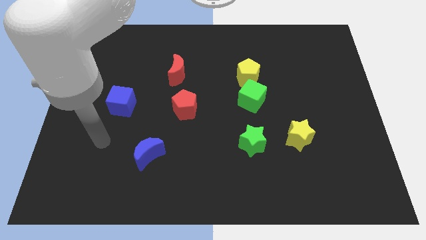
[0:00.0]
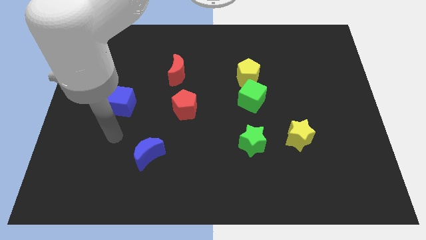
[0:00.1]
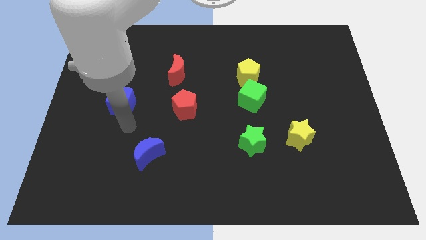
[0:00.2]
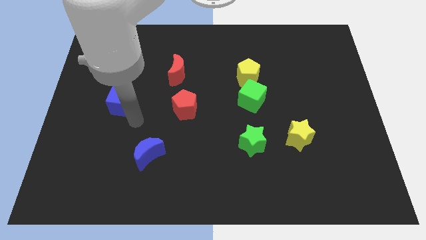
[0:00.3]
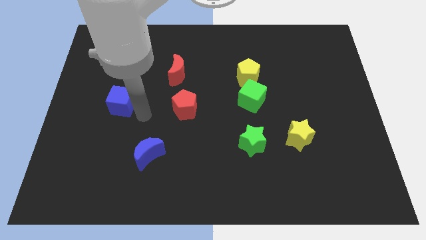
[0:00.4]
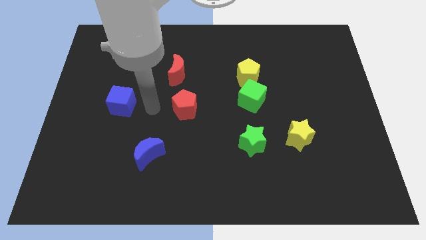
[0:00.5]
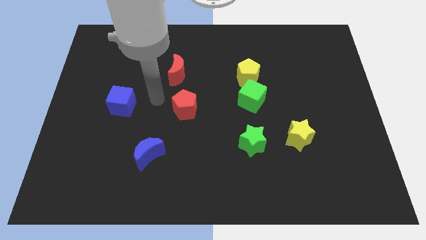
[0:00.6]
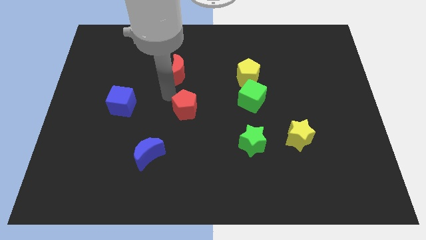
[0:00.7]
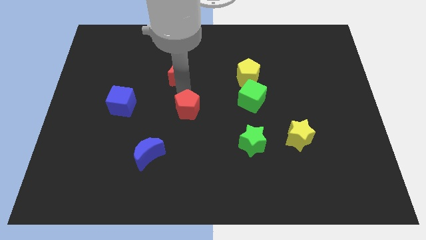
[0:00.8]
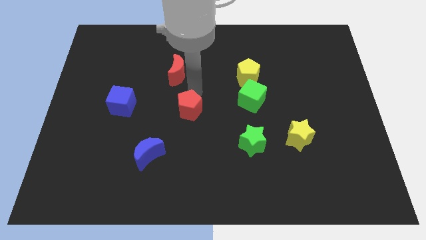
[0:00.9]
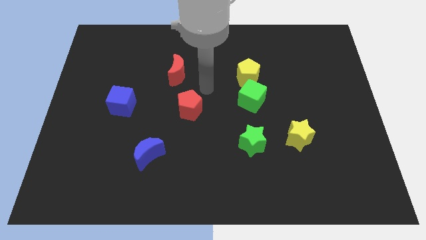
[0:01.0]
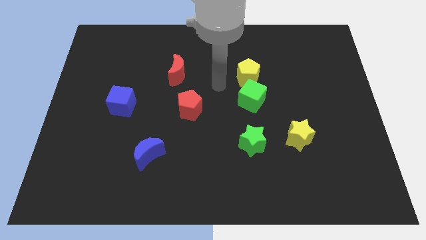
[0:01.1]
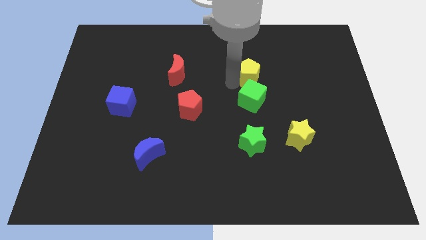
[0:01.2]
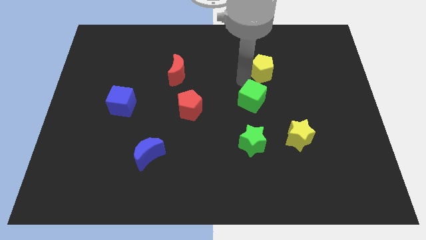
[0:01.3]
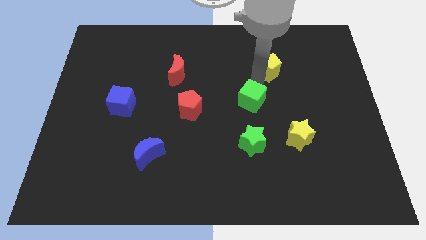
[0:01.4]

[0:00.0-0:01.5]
move the green cube away from the yellow pentagon

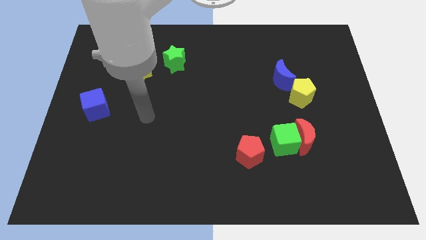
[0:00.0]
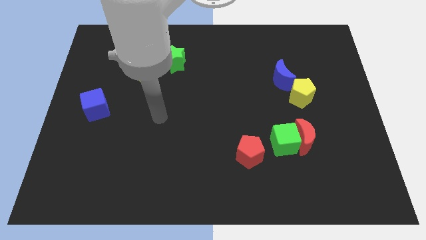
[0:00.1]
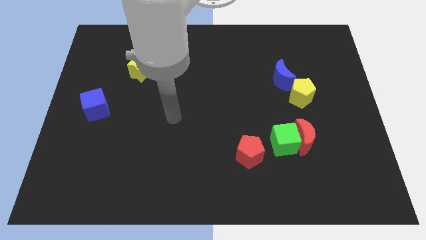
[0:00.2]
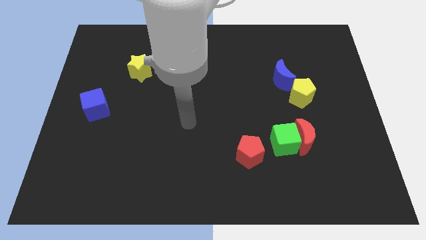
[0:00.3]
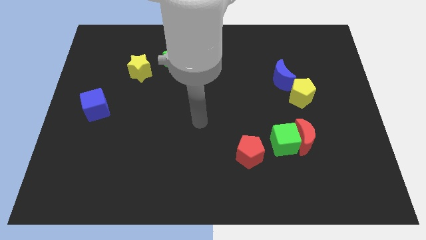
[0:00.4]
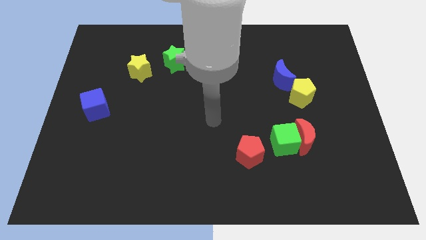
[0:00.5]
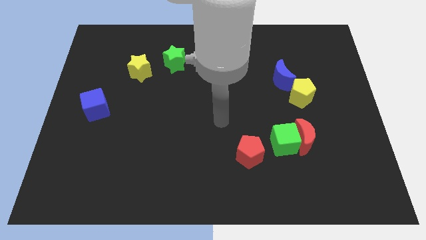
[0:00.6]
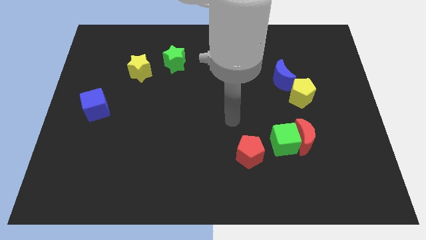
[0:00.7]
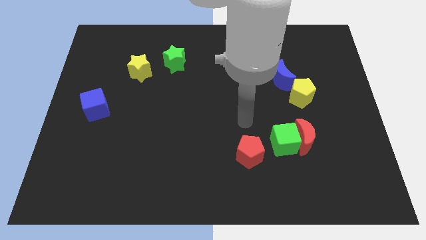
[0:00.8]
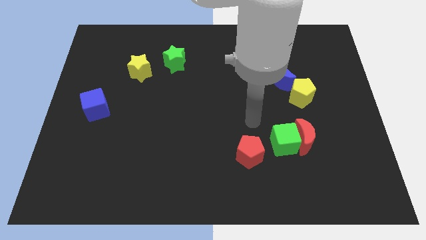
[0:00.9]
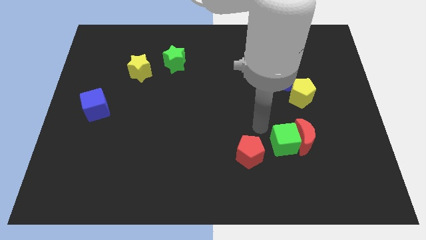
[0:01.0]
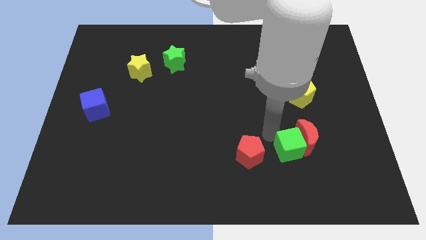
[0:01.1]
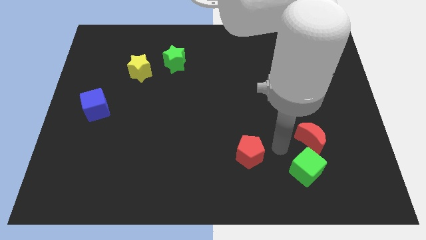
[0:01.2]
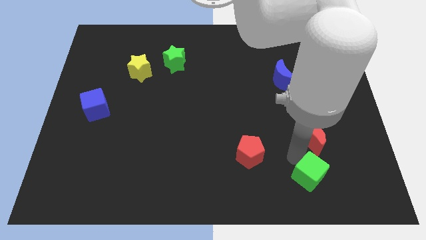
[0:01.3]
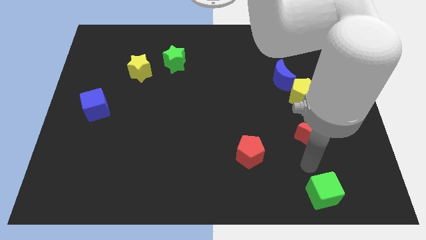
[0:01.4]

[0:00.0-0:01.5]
move the red moon away from the green cube

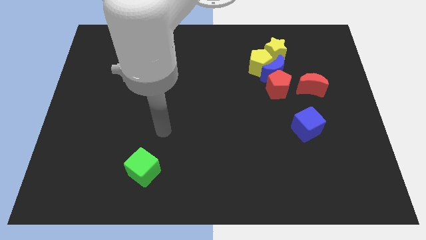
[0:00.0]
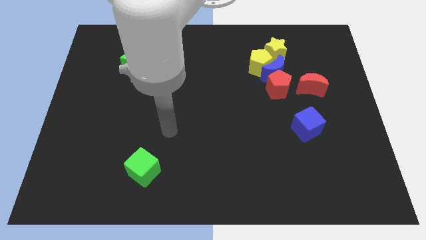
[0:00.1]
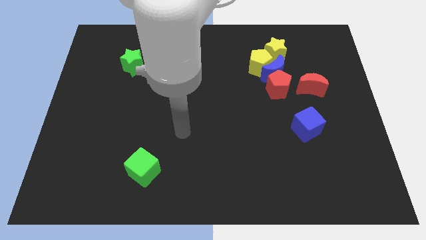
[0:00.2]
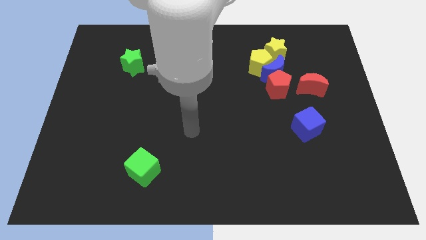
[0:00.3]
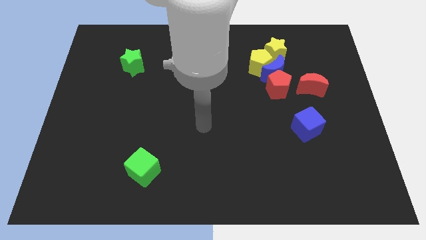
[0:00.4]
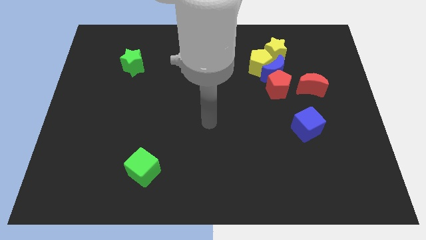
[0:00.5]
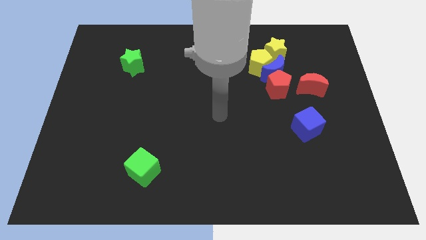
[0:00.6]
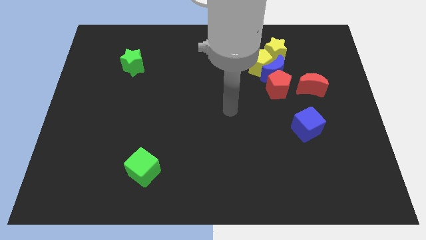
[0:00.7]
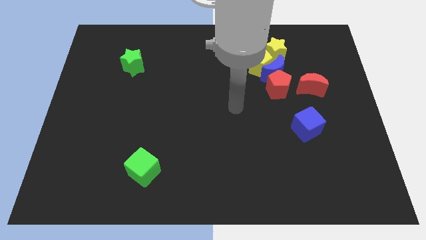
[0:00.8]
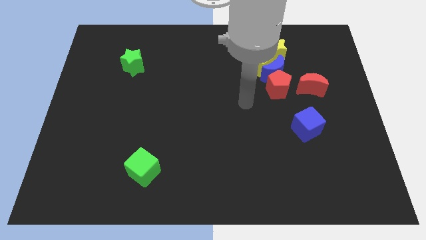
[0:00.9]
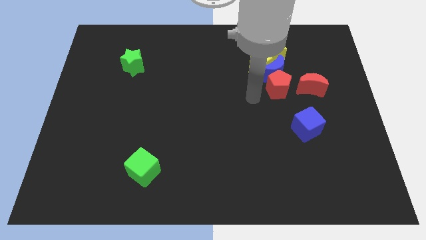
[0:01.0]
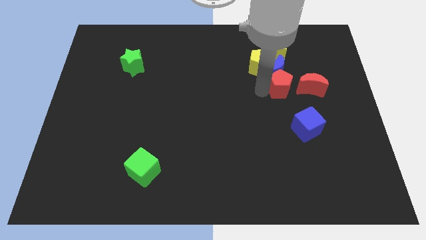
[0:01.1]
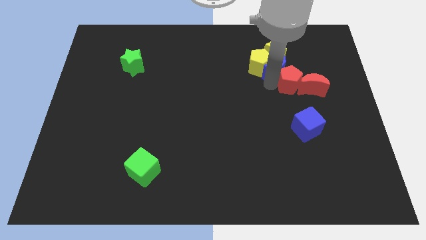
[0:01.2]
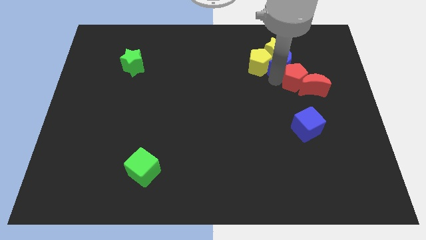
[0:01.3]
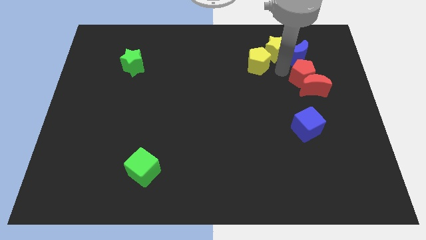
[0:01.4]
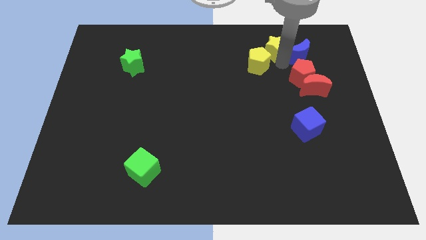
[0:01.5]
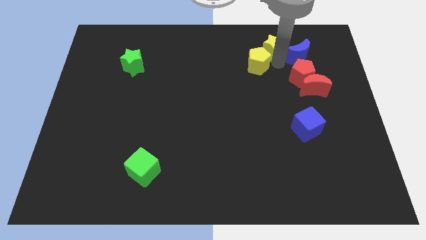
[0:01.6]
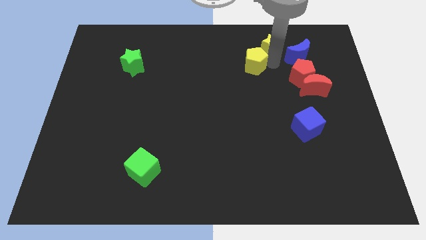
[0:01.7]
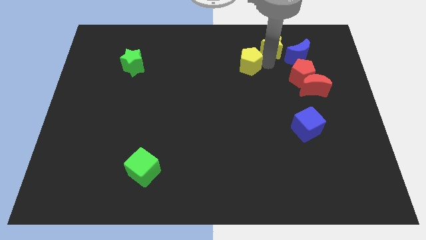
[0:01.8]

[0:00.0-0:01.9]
move the yellow pentagon away from the blue moon, yellow star, and red pentagon

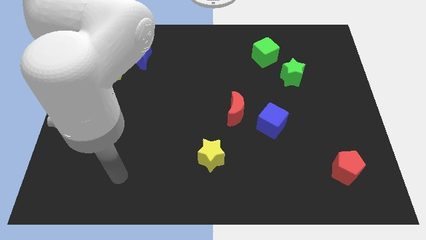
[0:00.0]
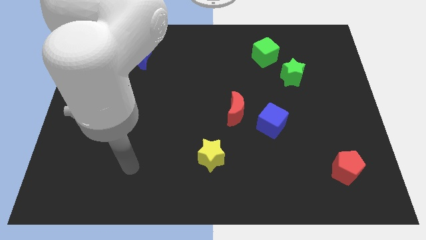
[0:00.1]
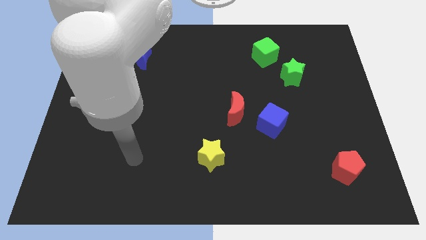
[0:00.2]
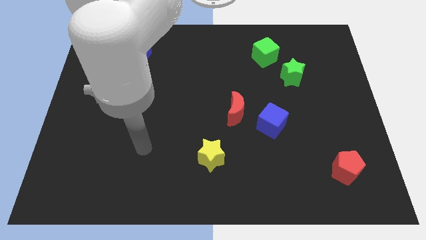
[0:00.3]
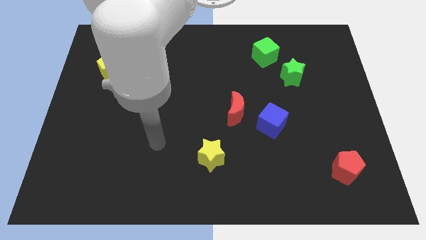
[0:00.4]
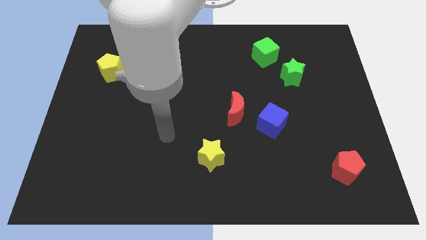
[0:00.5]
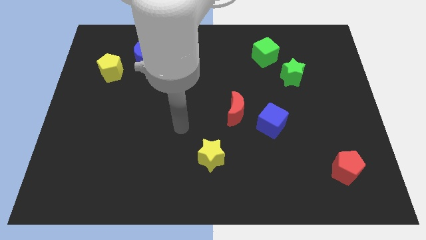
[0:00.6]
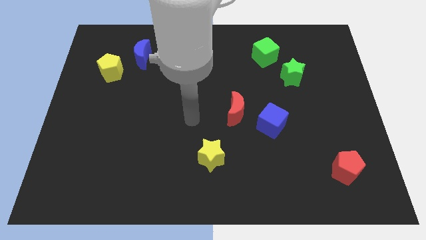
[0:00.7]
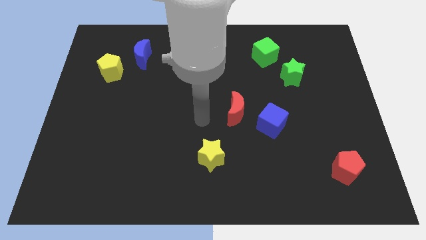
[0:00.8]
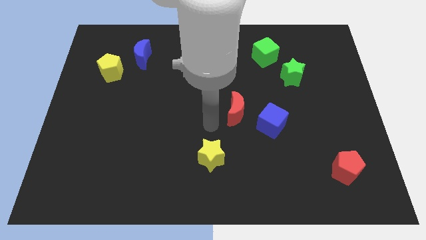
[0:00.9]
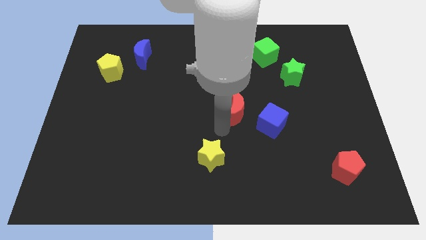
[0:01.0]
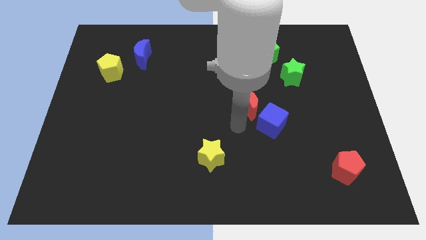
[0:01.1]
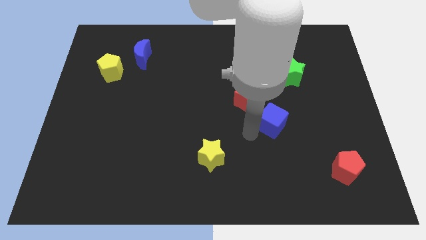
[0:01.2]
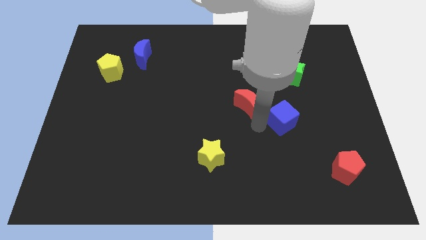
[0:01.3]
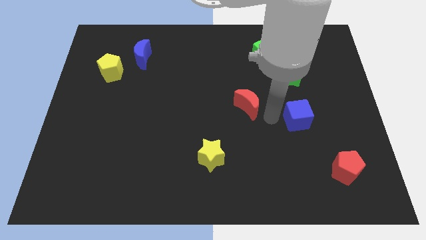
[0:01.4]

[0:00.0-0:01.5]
separate the red moon from the blue cube

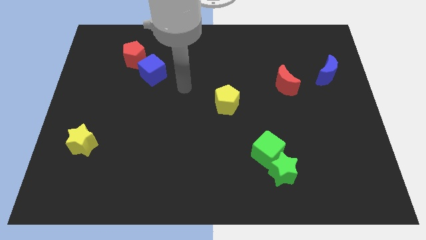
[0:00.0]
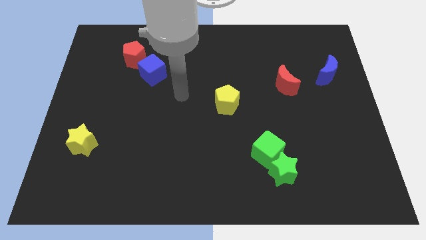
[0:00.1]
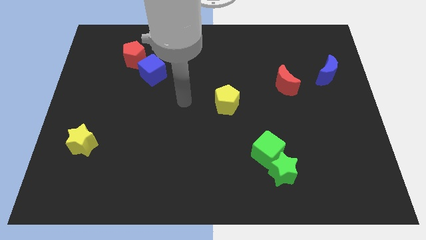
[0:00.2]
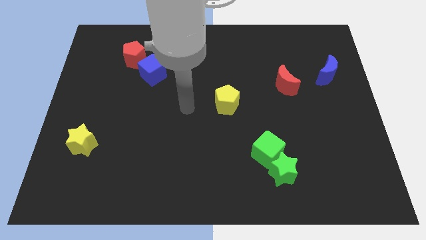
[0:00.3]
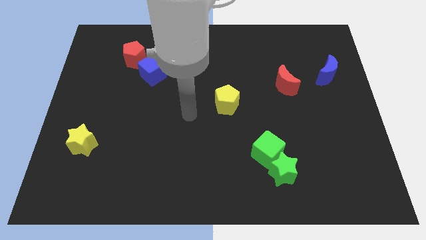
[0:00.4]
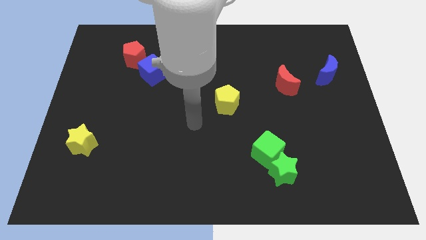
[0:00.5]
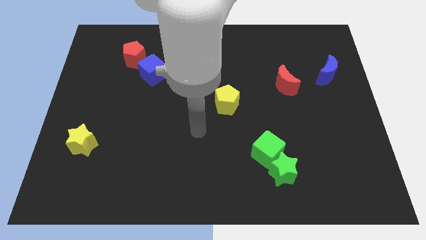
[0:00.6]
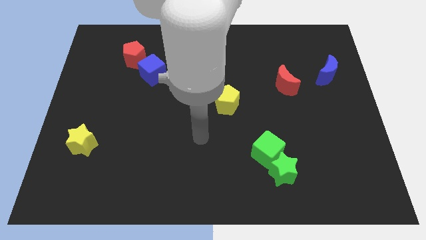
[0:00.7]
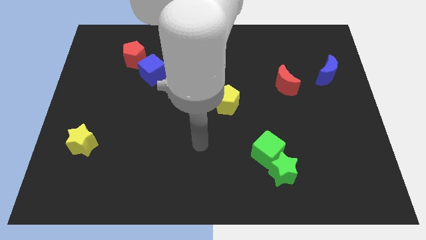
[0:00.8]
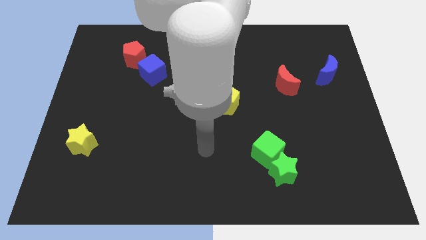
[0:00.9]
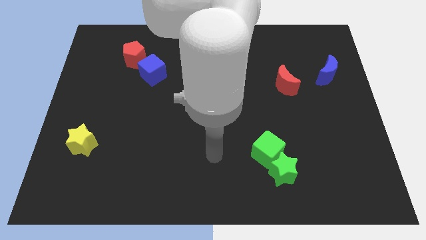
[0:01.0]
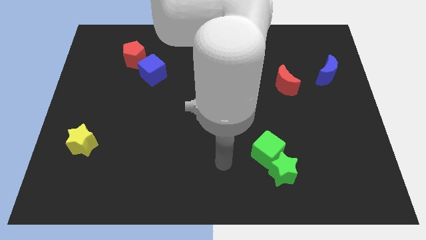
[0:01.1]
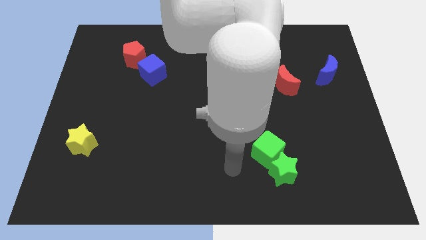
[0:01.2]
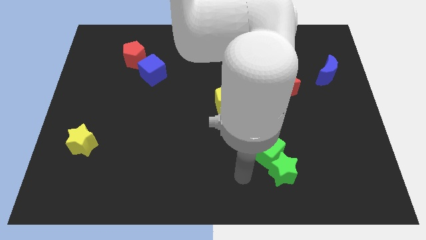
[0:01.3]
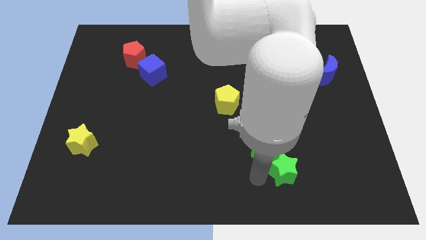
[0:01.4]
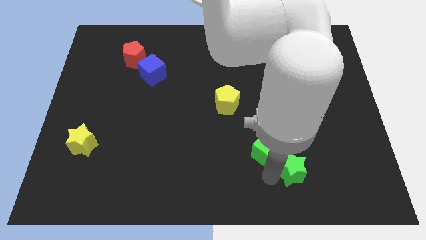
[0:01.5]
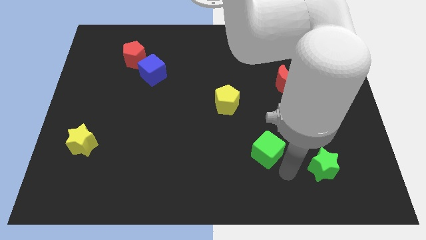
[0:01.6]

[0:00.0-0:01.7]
separate the green cube from the green star

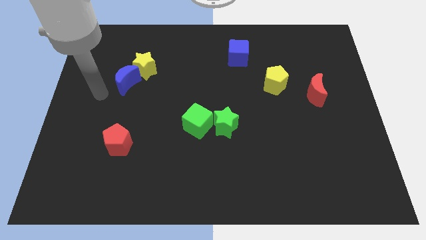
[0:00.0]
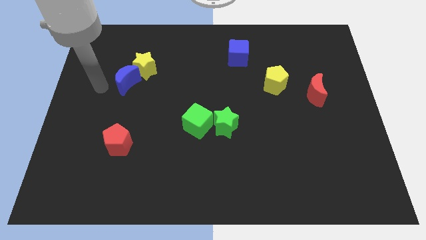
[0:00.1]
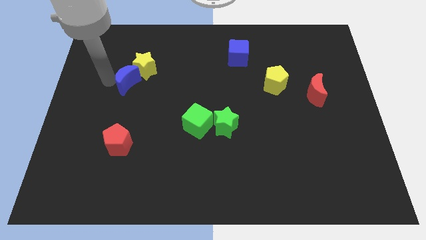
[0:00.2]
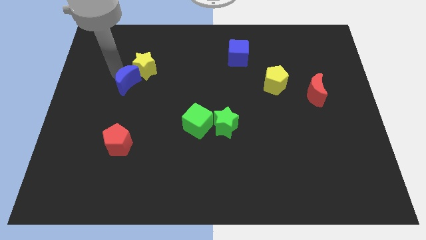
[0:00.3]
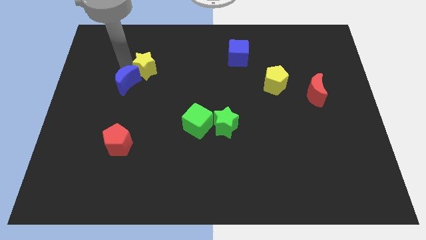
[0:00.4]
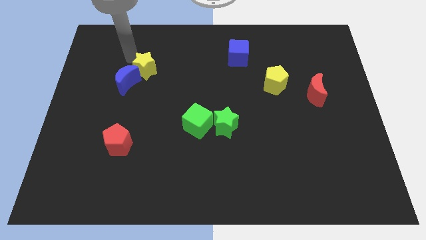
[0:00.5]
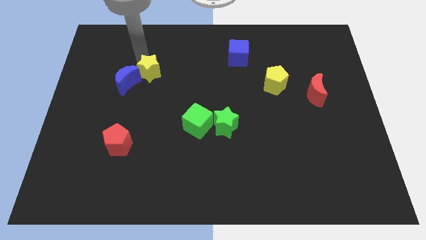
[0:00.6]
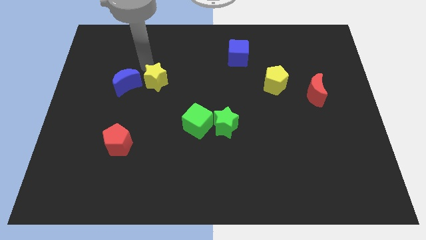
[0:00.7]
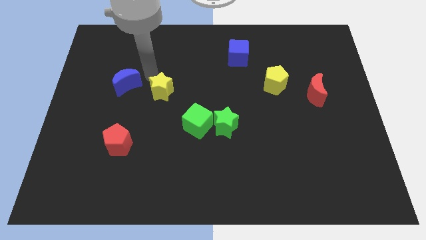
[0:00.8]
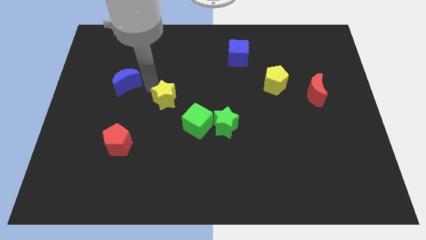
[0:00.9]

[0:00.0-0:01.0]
pull the blue moon apart from the yellow star

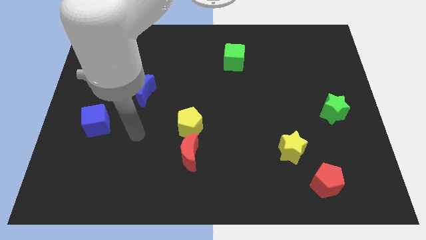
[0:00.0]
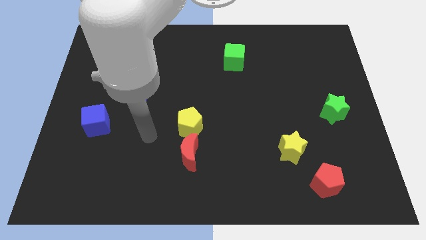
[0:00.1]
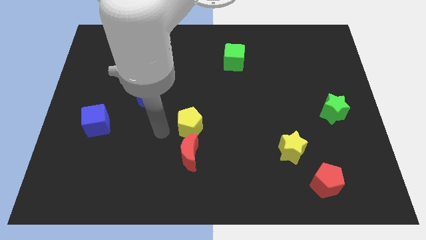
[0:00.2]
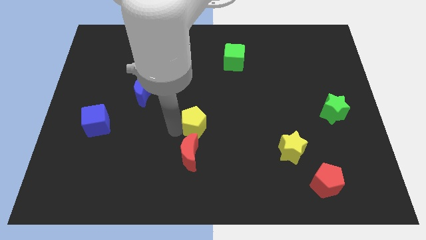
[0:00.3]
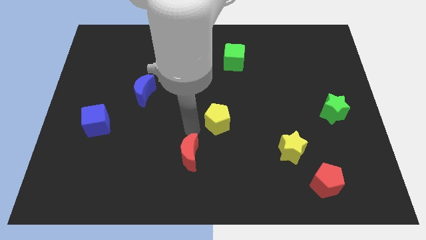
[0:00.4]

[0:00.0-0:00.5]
pull the red moon apart from the yellow pentagon
